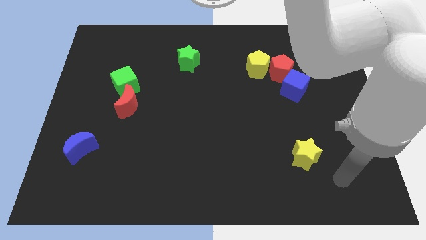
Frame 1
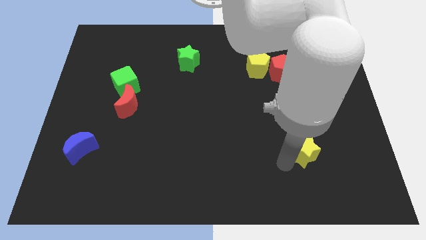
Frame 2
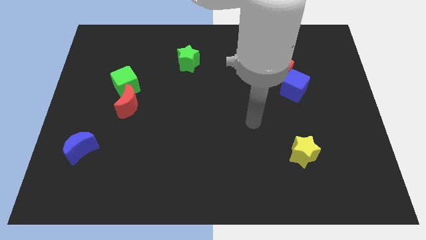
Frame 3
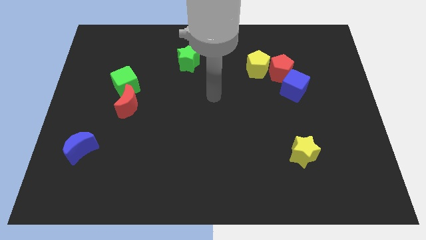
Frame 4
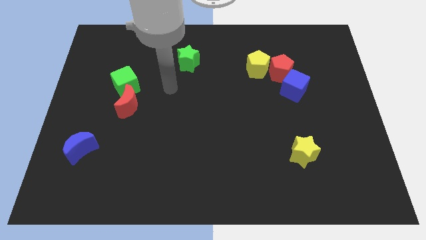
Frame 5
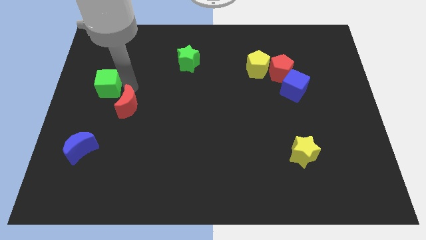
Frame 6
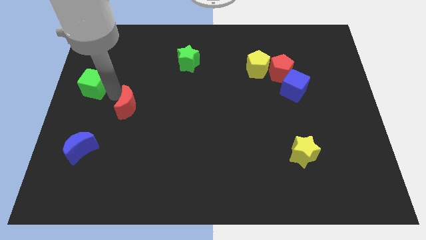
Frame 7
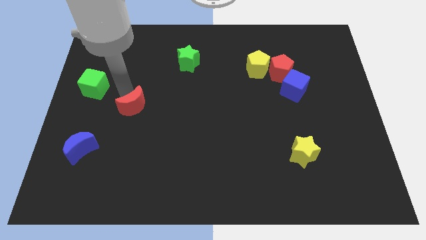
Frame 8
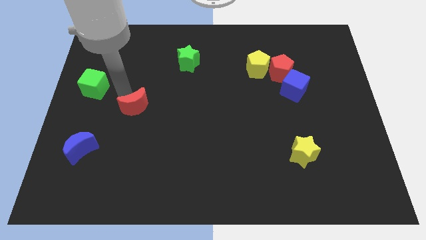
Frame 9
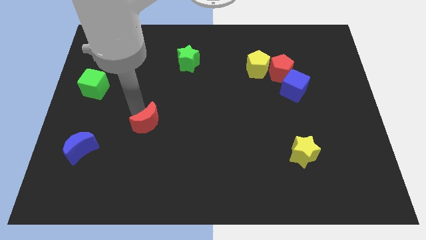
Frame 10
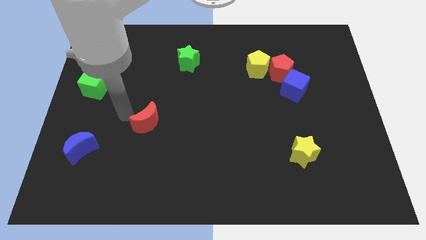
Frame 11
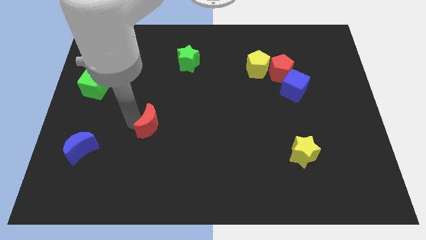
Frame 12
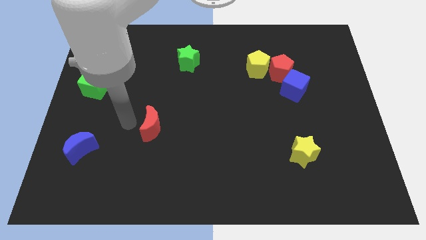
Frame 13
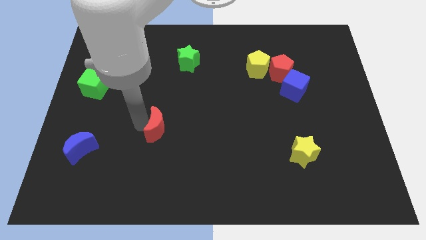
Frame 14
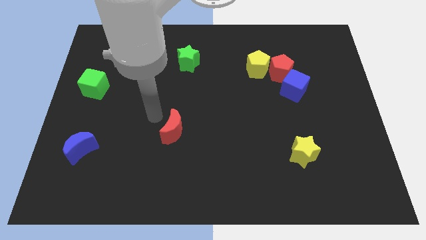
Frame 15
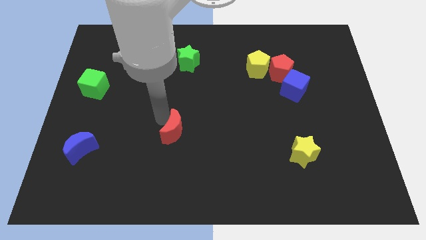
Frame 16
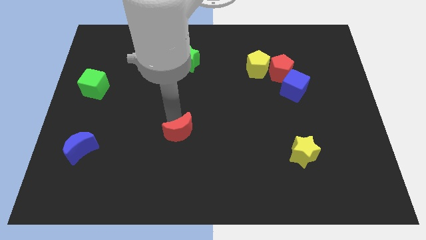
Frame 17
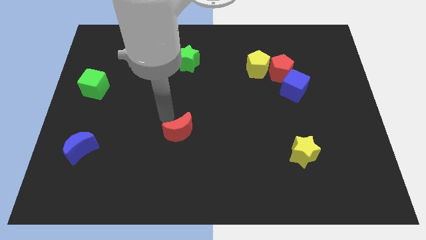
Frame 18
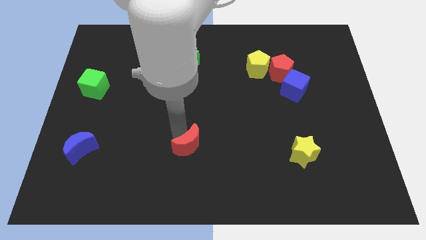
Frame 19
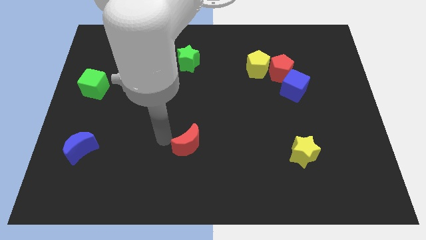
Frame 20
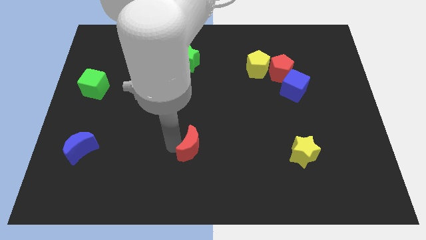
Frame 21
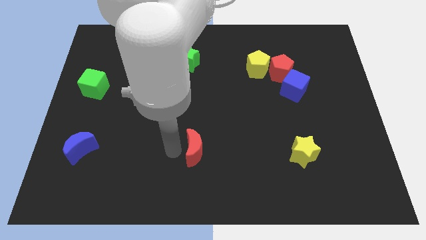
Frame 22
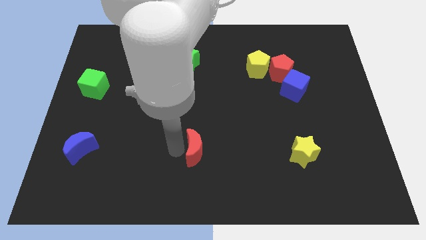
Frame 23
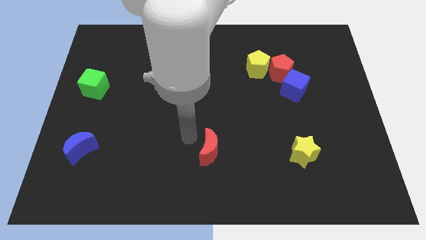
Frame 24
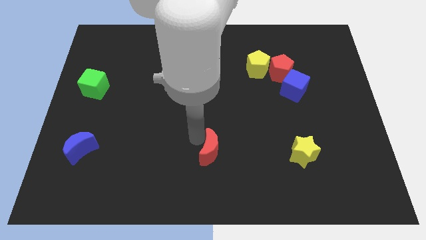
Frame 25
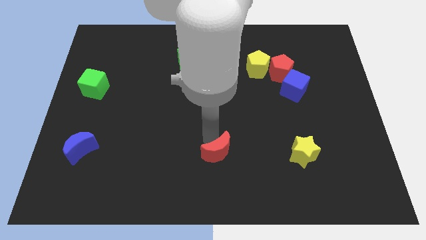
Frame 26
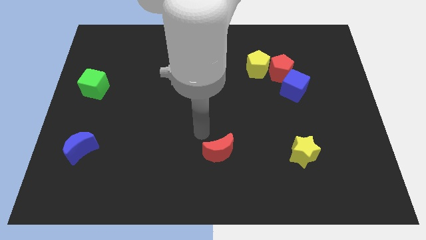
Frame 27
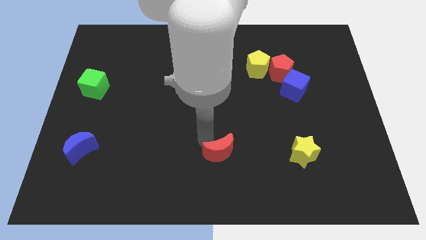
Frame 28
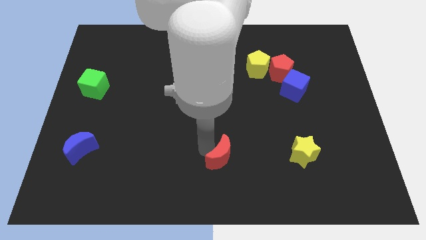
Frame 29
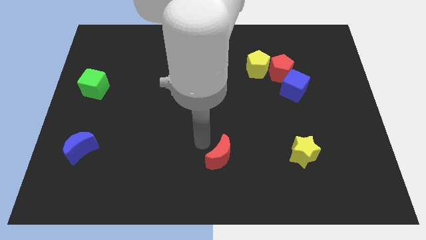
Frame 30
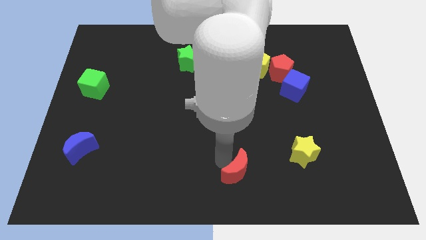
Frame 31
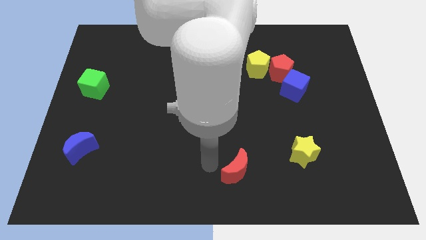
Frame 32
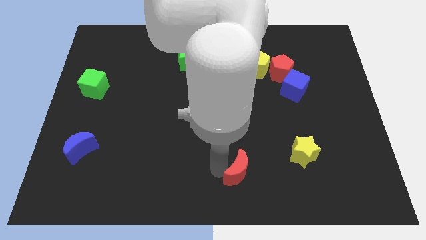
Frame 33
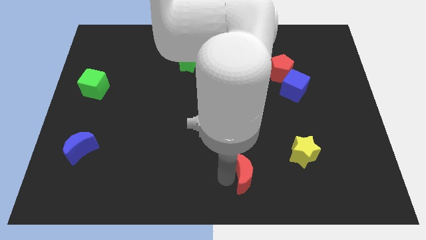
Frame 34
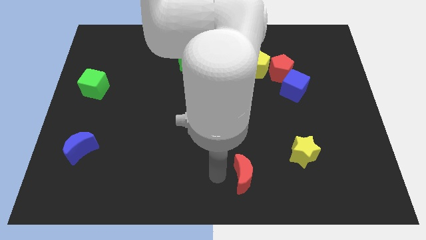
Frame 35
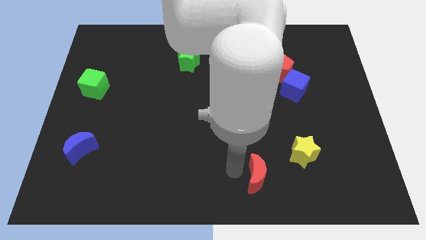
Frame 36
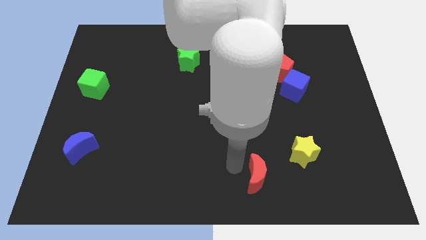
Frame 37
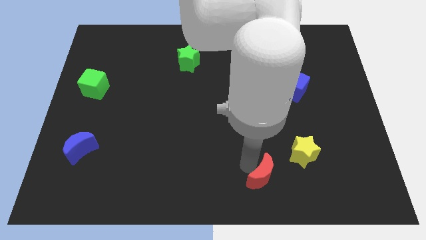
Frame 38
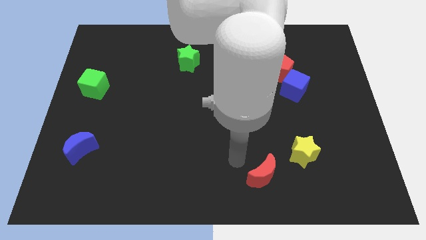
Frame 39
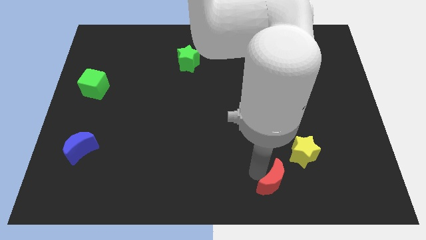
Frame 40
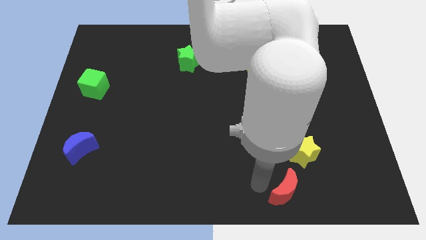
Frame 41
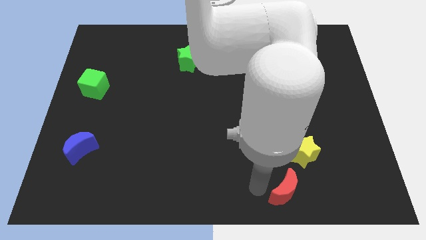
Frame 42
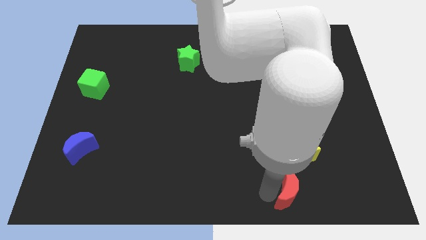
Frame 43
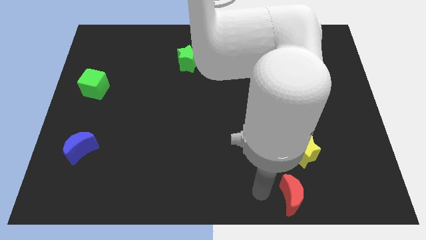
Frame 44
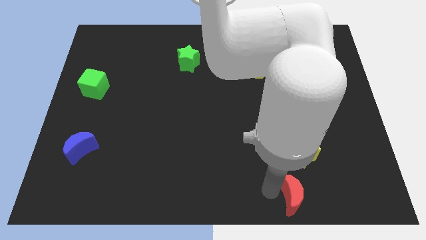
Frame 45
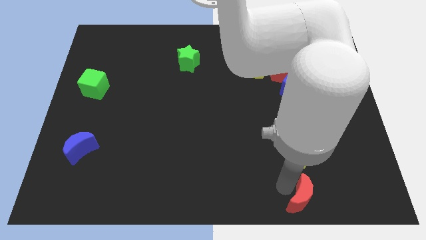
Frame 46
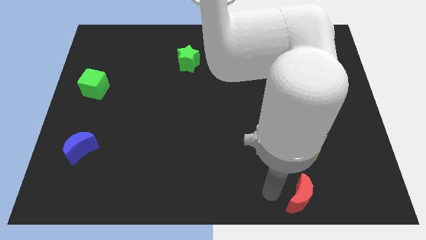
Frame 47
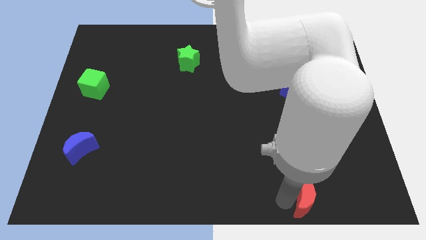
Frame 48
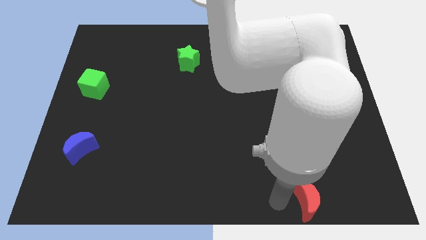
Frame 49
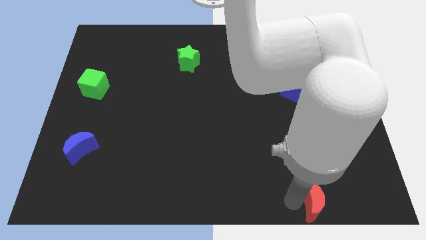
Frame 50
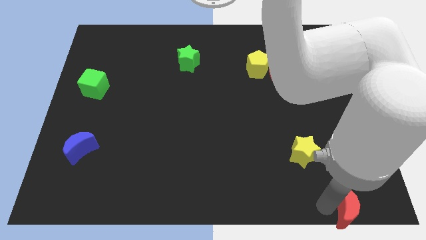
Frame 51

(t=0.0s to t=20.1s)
put the red moon to the bottom right

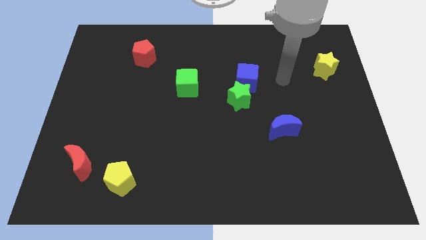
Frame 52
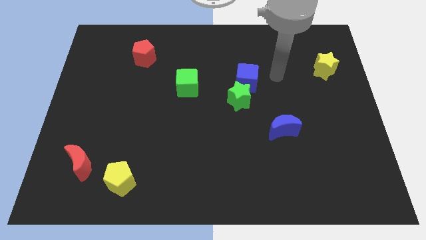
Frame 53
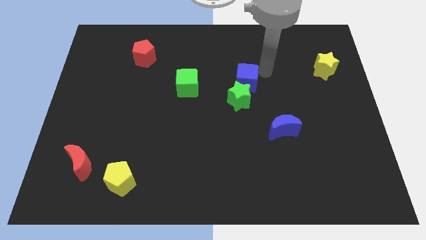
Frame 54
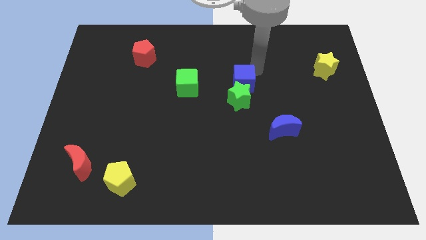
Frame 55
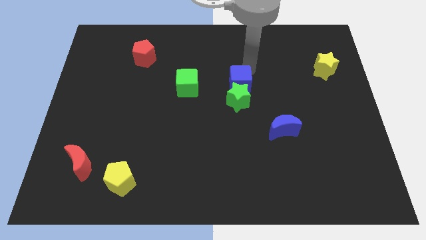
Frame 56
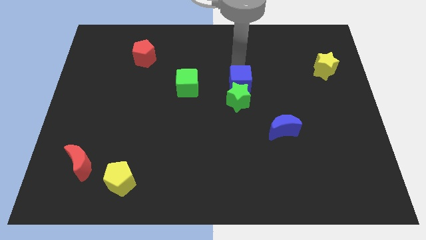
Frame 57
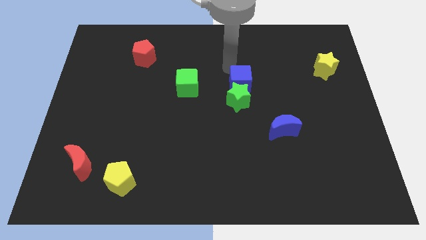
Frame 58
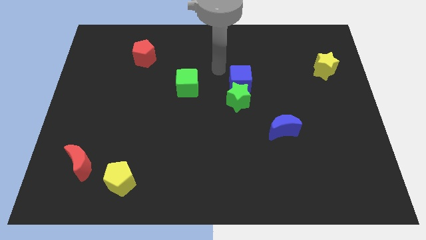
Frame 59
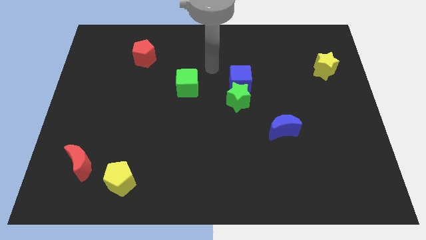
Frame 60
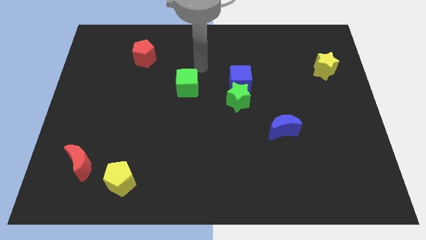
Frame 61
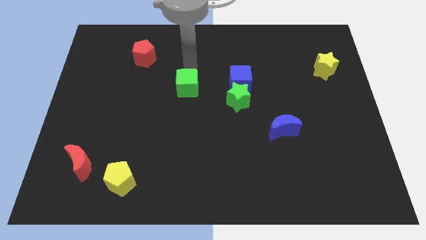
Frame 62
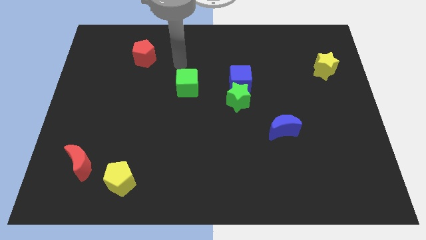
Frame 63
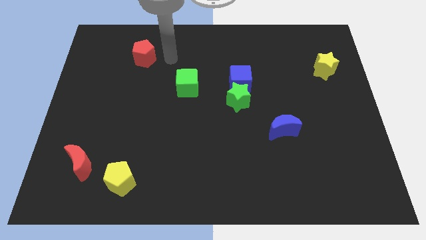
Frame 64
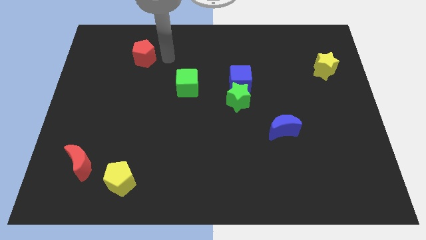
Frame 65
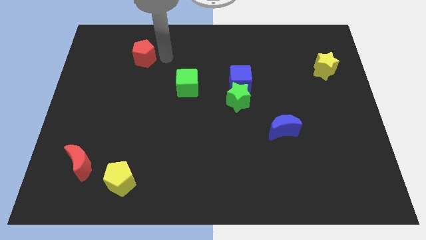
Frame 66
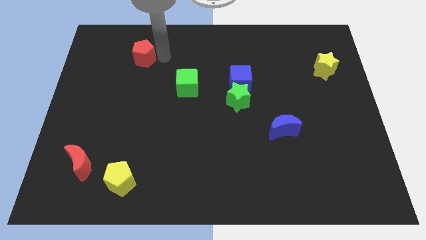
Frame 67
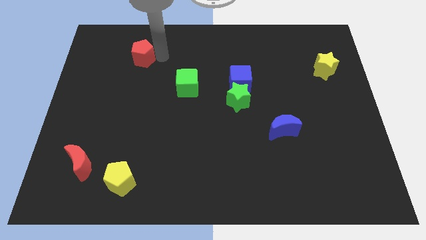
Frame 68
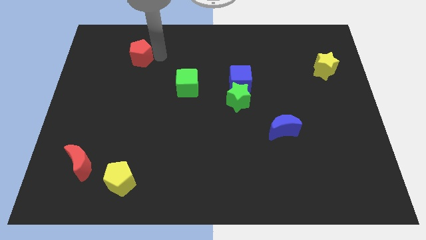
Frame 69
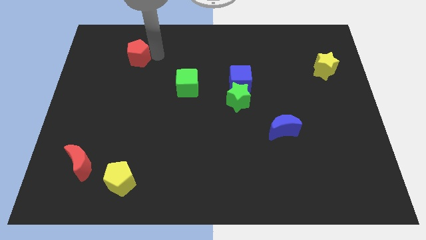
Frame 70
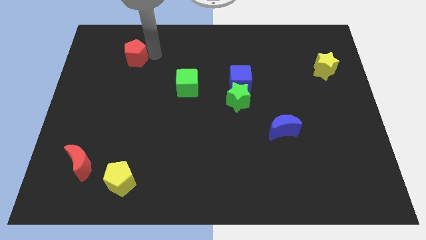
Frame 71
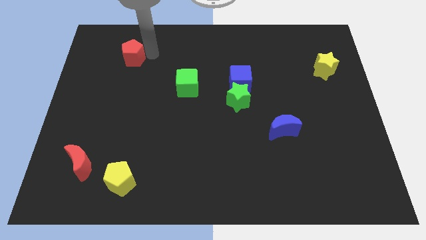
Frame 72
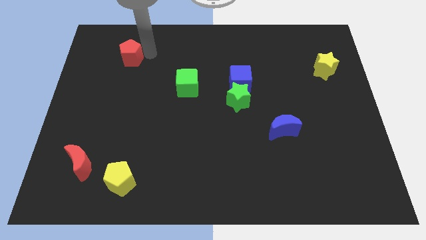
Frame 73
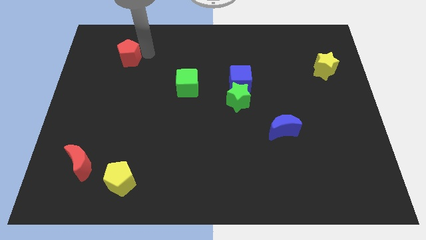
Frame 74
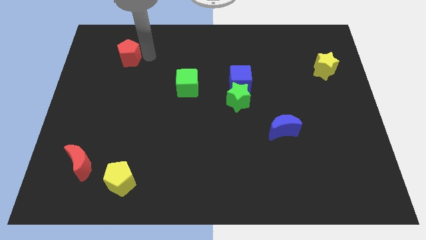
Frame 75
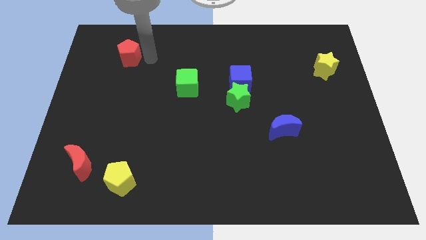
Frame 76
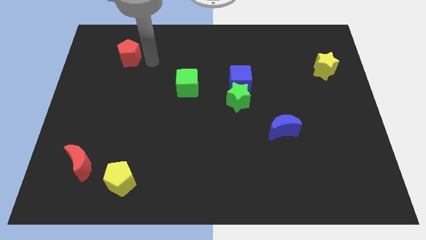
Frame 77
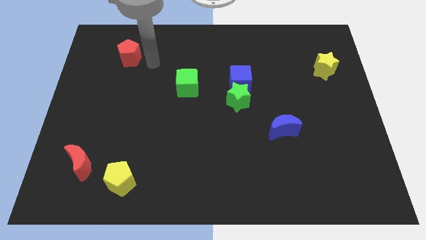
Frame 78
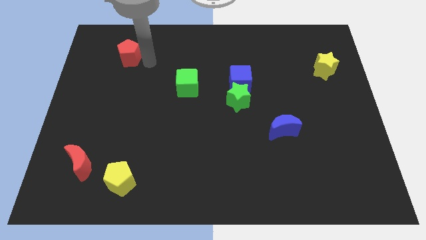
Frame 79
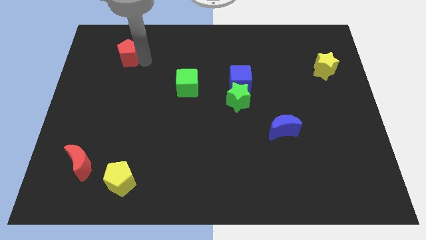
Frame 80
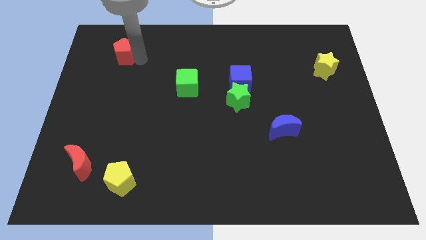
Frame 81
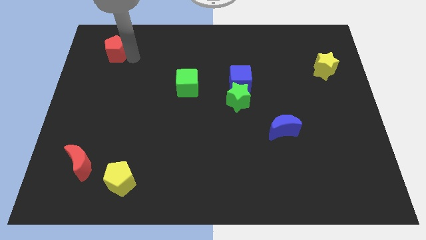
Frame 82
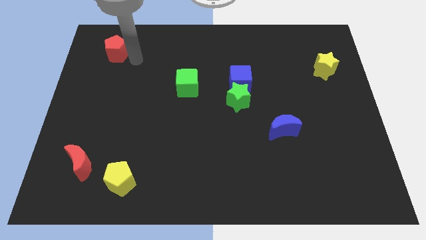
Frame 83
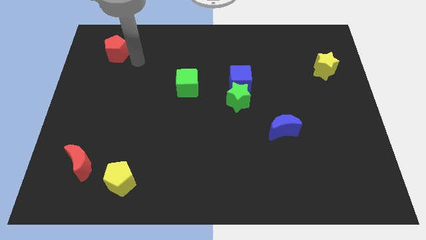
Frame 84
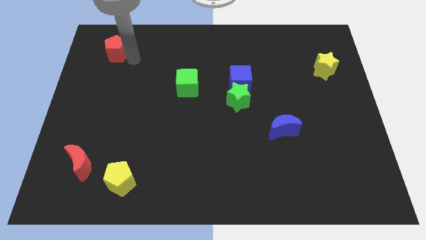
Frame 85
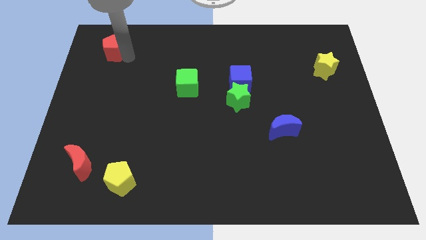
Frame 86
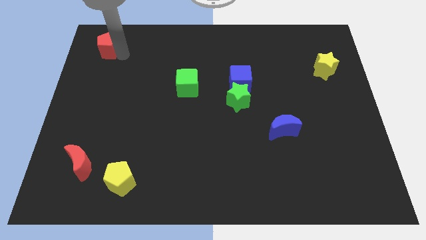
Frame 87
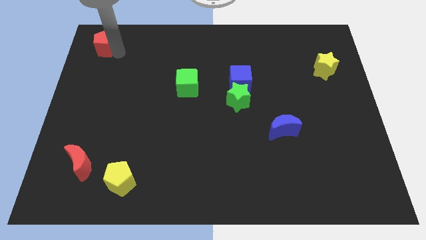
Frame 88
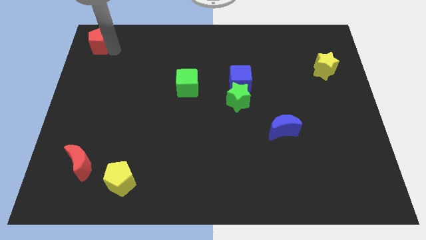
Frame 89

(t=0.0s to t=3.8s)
push the red pentagon to the top left corner
